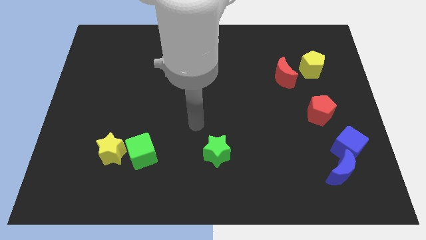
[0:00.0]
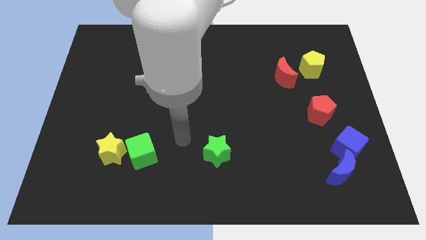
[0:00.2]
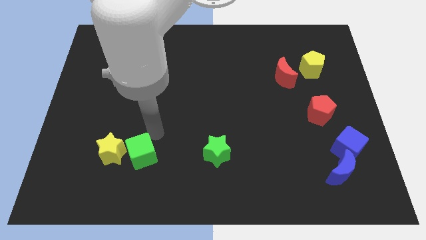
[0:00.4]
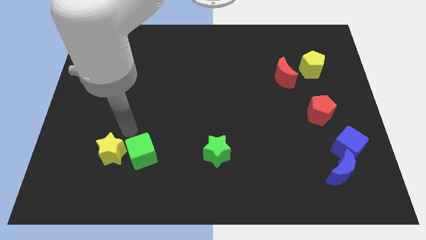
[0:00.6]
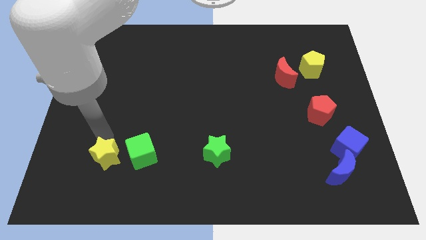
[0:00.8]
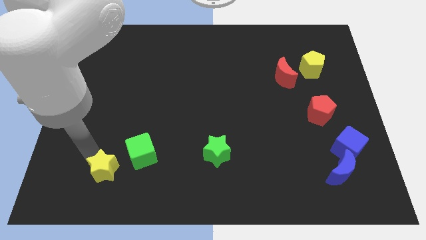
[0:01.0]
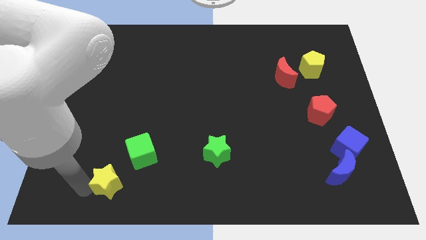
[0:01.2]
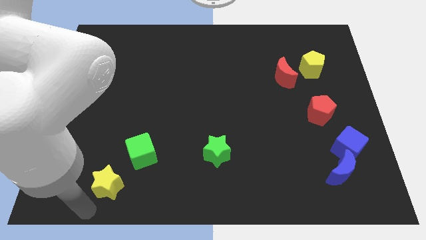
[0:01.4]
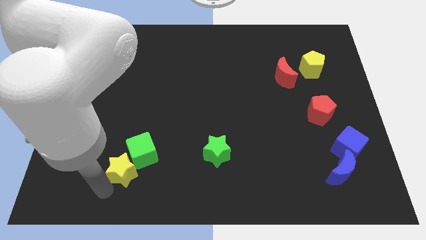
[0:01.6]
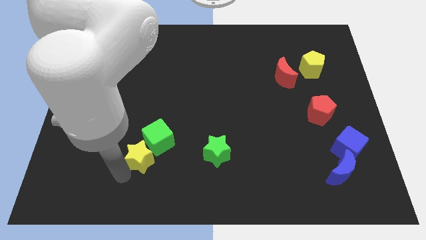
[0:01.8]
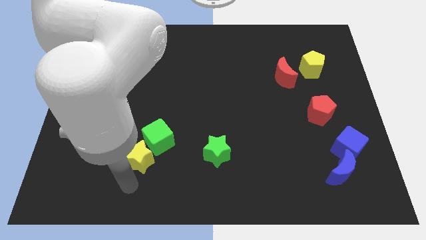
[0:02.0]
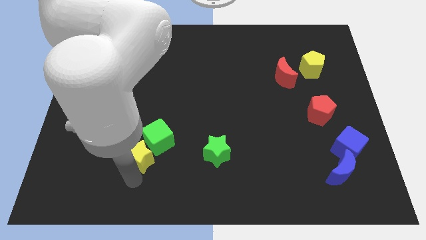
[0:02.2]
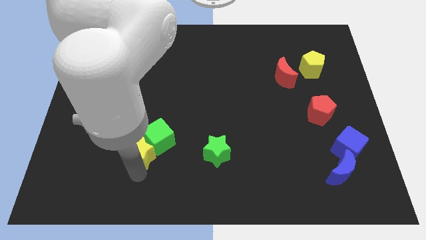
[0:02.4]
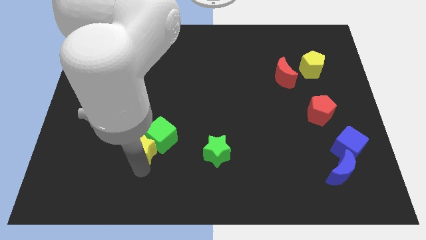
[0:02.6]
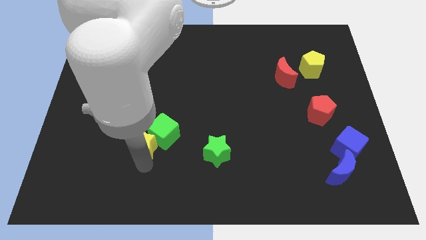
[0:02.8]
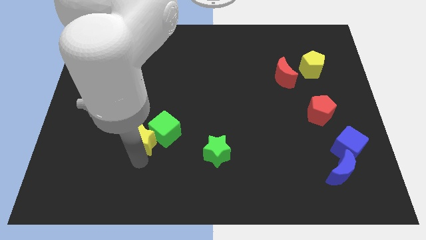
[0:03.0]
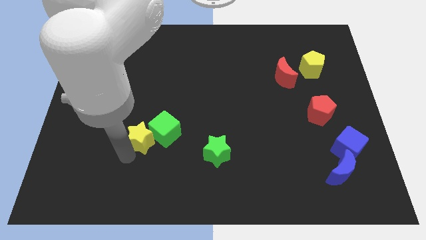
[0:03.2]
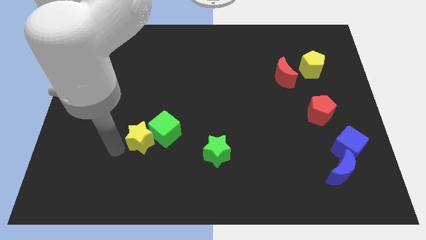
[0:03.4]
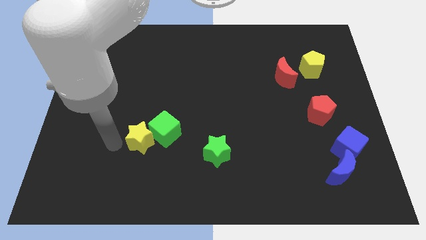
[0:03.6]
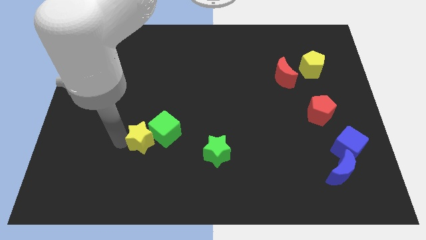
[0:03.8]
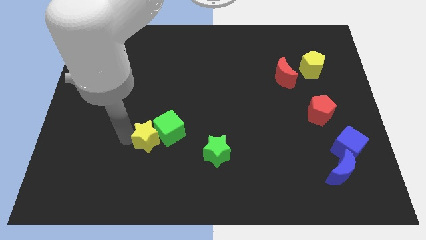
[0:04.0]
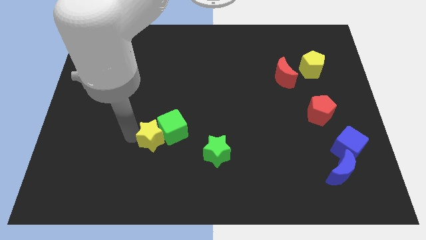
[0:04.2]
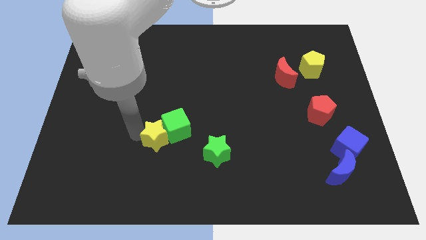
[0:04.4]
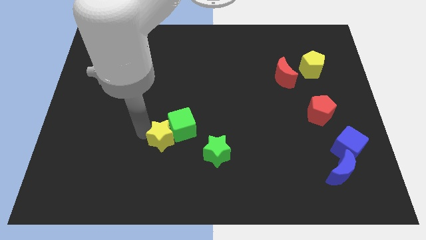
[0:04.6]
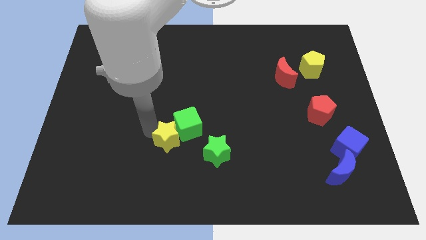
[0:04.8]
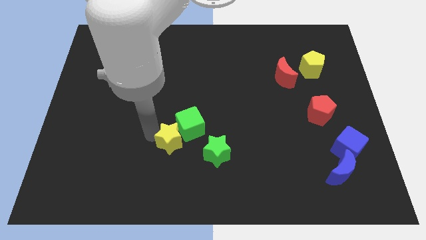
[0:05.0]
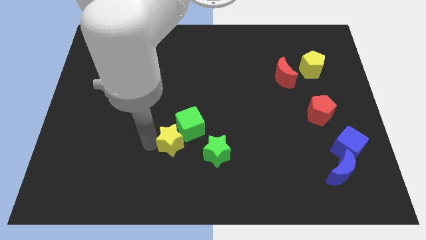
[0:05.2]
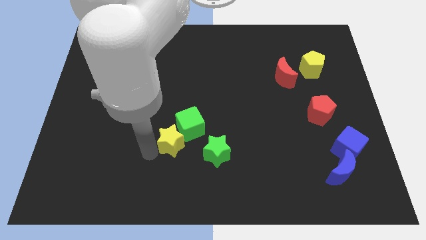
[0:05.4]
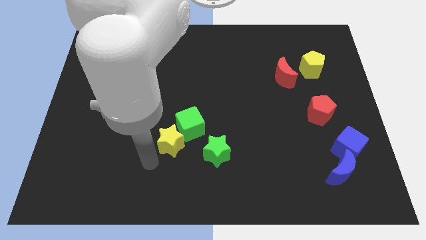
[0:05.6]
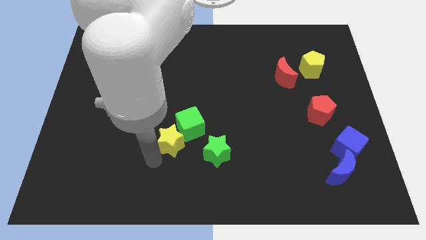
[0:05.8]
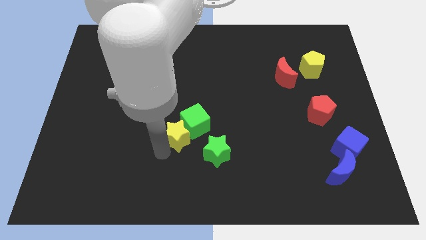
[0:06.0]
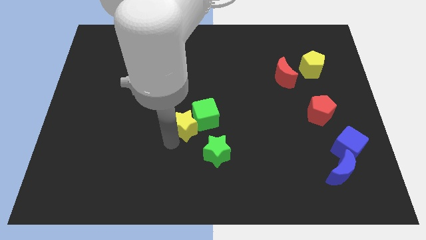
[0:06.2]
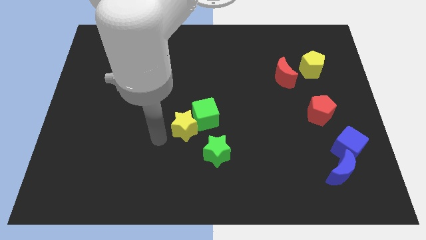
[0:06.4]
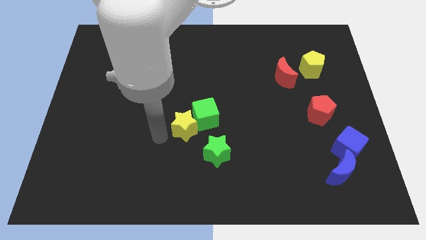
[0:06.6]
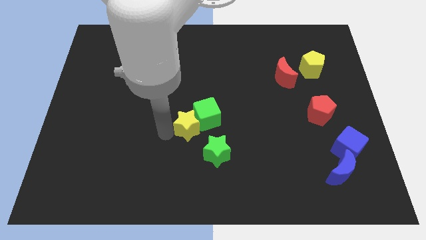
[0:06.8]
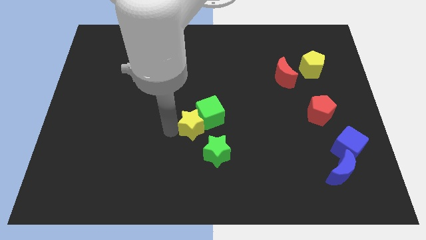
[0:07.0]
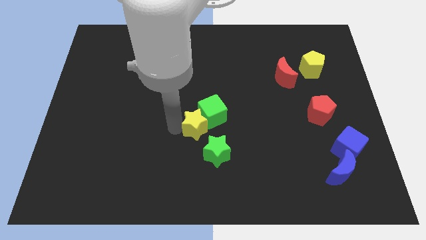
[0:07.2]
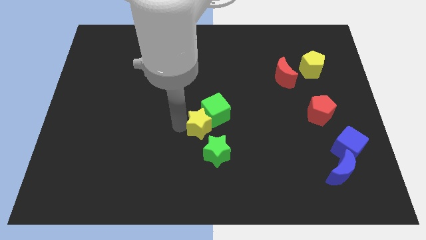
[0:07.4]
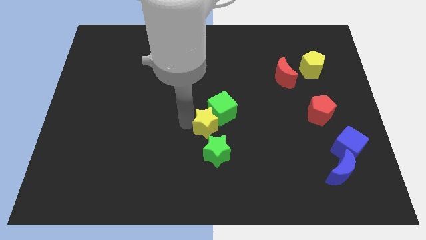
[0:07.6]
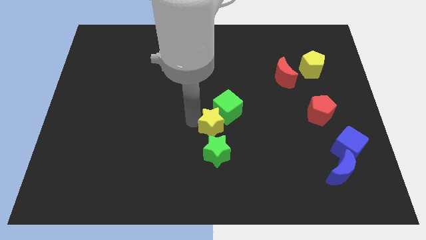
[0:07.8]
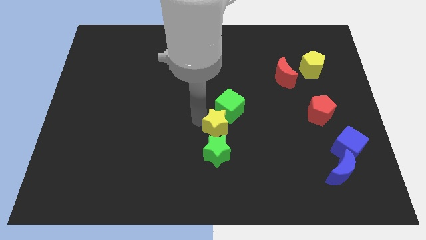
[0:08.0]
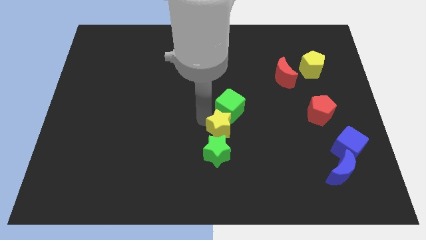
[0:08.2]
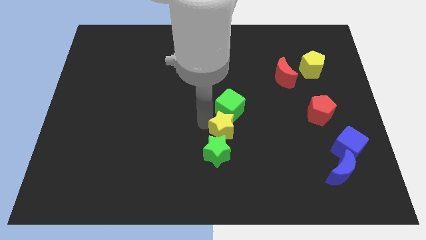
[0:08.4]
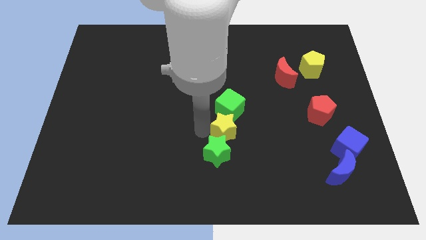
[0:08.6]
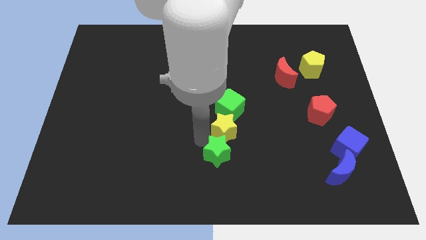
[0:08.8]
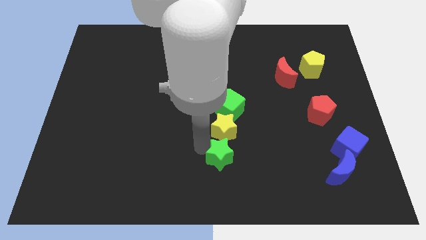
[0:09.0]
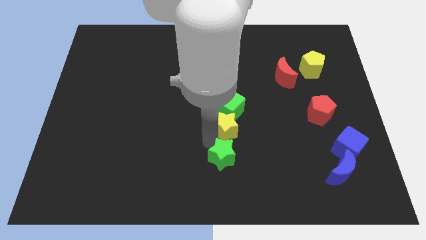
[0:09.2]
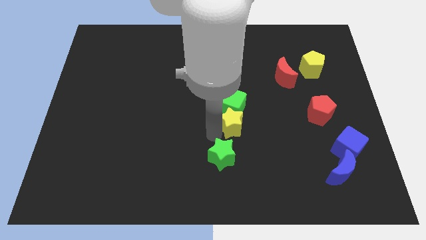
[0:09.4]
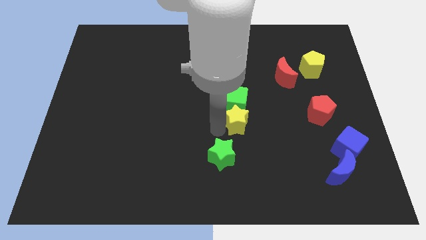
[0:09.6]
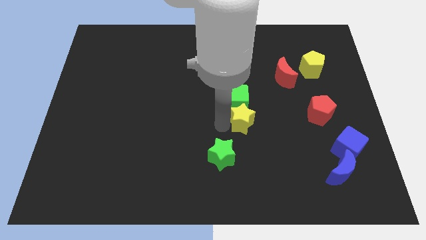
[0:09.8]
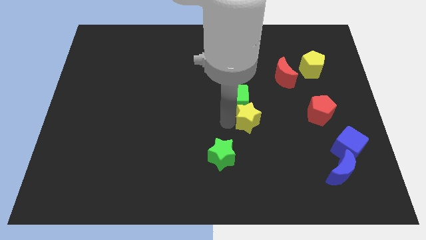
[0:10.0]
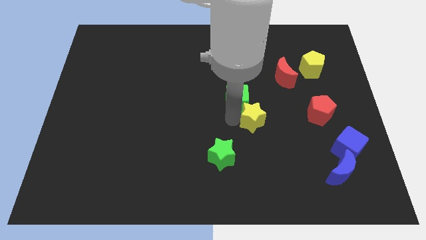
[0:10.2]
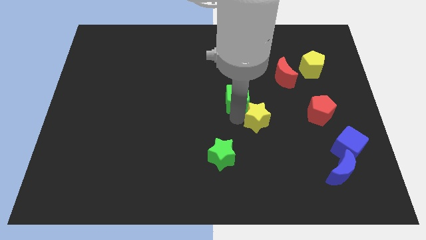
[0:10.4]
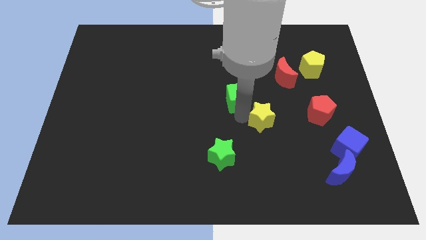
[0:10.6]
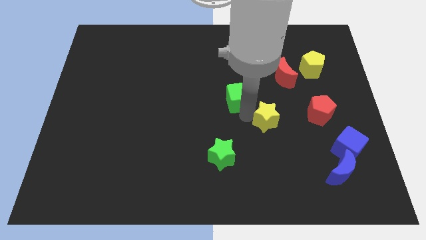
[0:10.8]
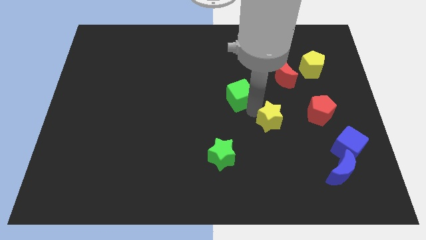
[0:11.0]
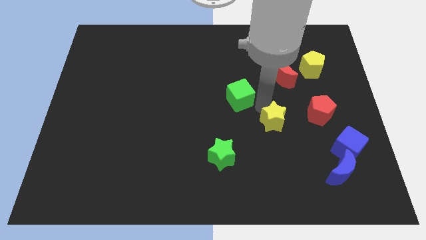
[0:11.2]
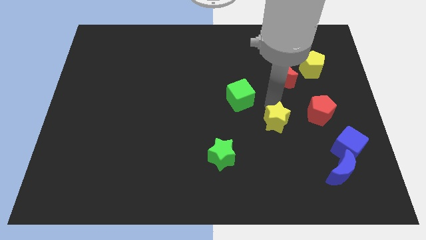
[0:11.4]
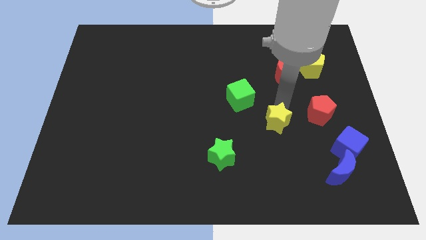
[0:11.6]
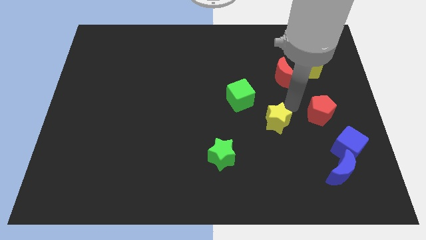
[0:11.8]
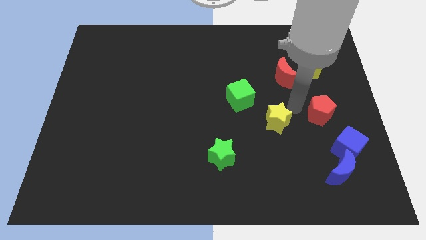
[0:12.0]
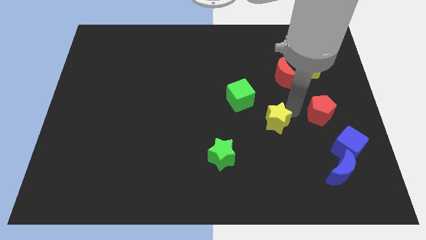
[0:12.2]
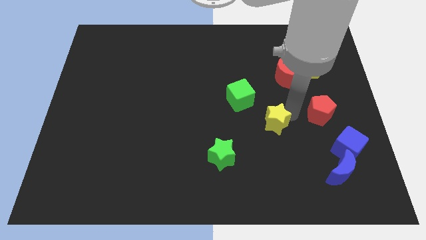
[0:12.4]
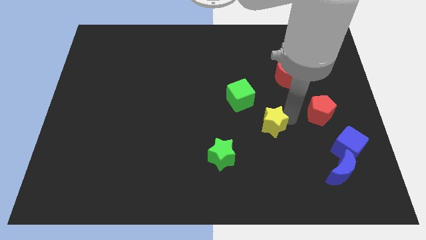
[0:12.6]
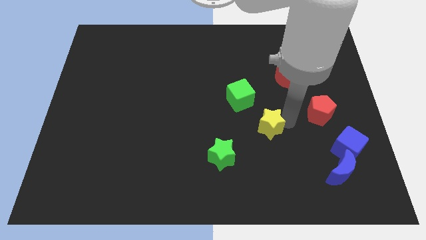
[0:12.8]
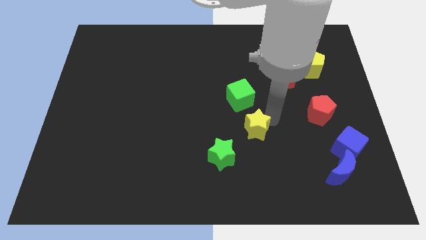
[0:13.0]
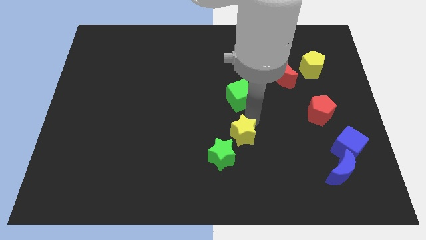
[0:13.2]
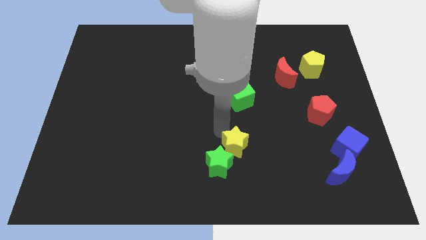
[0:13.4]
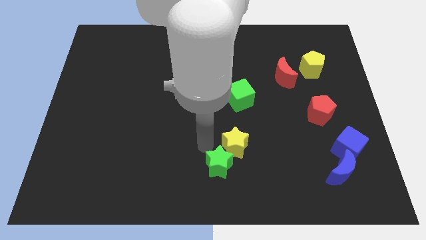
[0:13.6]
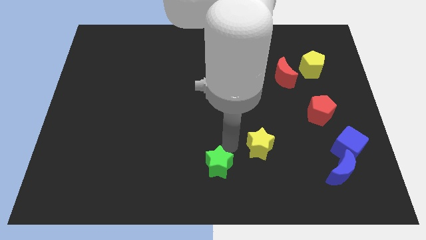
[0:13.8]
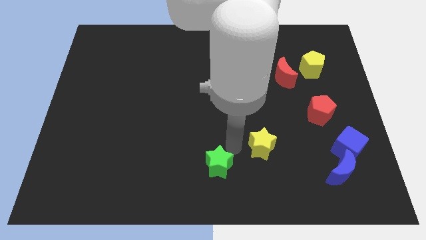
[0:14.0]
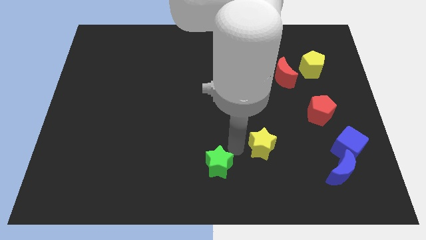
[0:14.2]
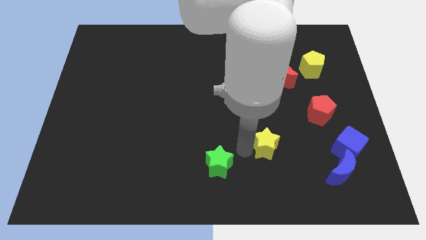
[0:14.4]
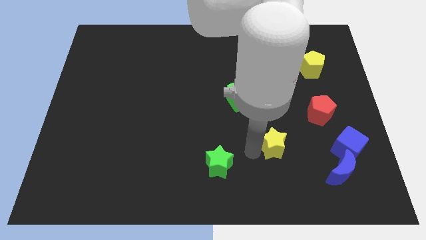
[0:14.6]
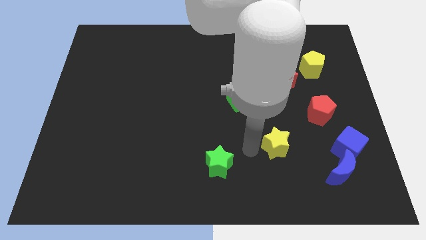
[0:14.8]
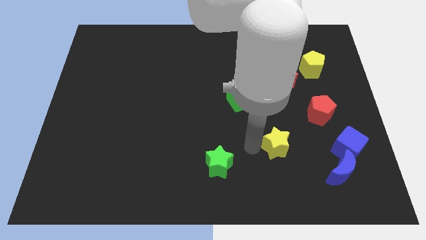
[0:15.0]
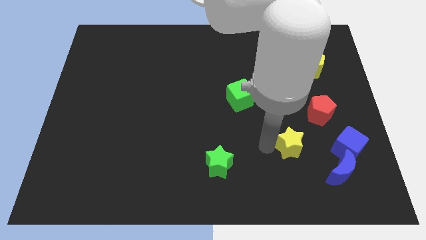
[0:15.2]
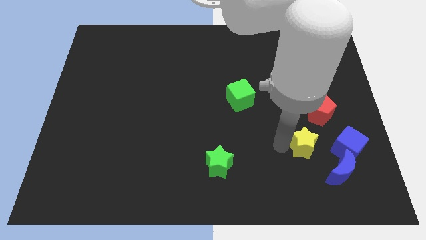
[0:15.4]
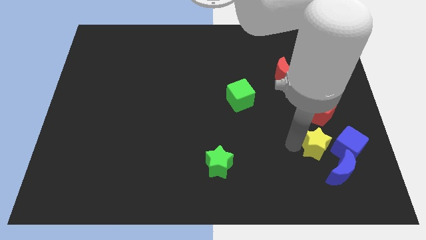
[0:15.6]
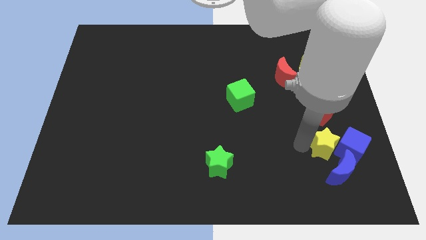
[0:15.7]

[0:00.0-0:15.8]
slide the yellow star close to the blue cube
